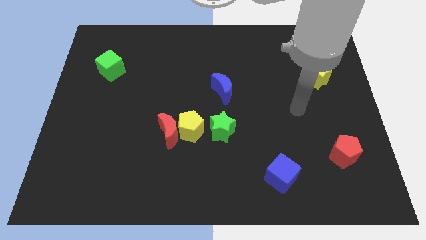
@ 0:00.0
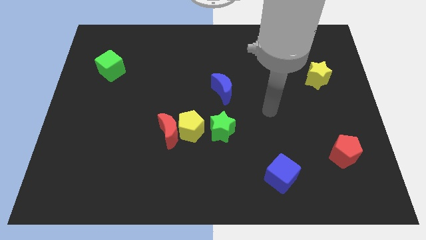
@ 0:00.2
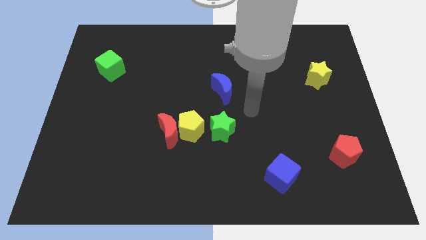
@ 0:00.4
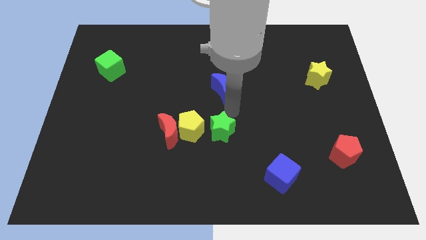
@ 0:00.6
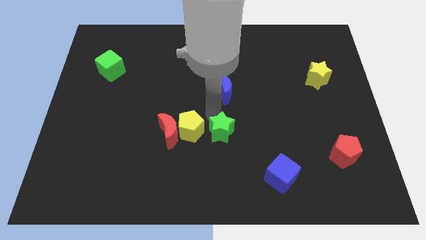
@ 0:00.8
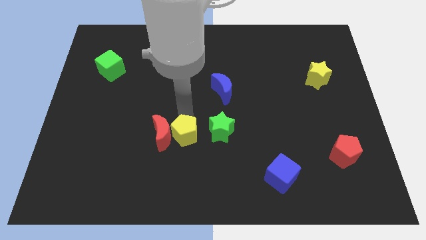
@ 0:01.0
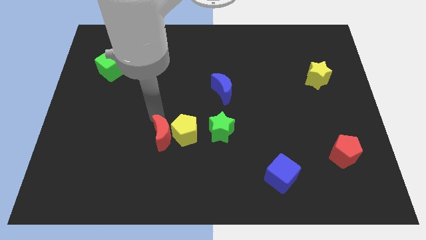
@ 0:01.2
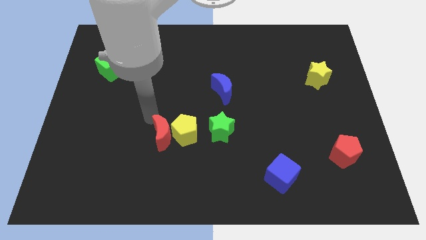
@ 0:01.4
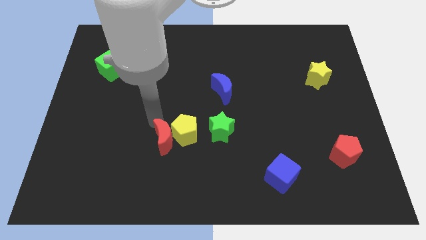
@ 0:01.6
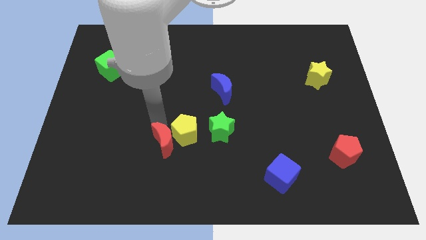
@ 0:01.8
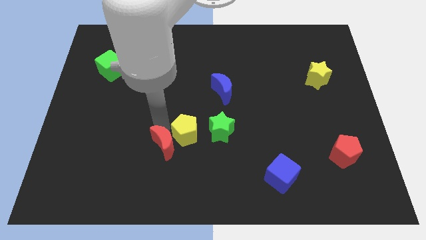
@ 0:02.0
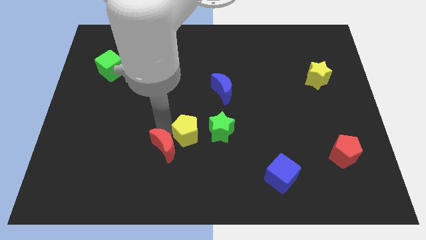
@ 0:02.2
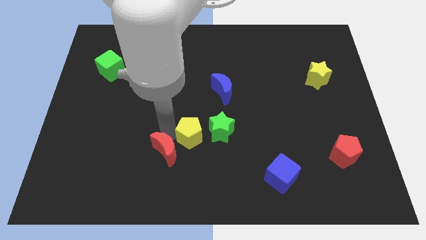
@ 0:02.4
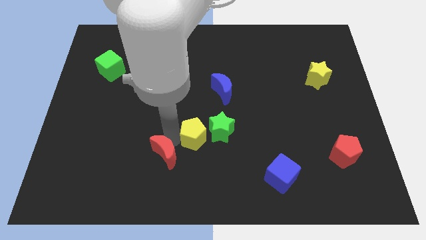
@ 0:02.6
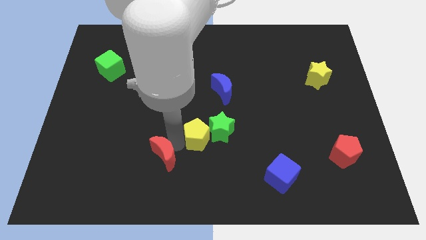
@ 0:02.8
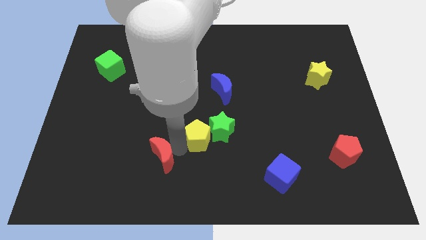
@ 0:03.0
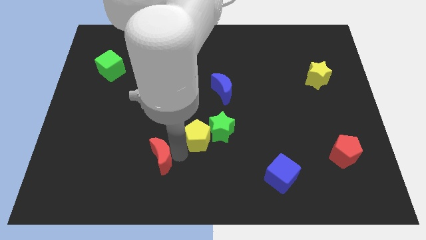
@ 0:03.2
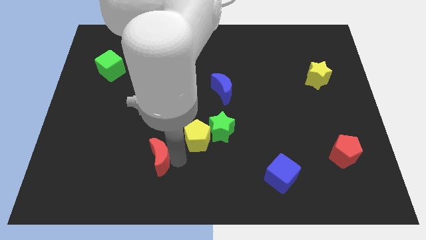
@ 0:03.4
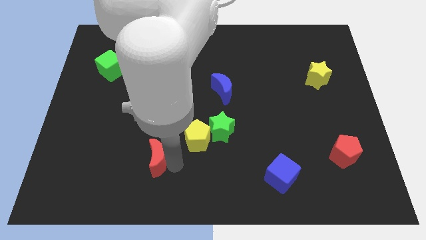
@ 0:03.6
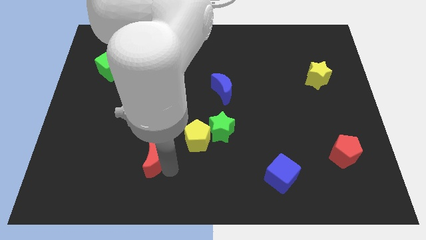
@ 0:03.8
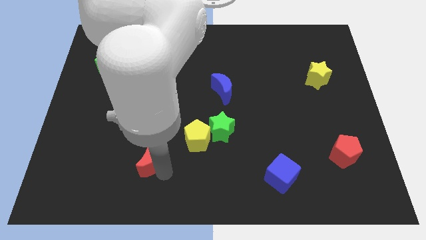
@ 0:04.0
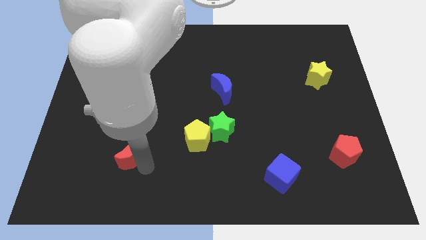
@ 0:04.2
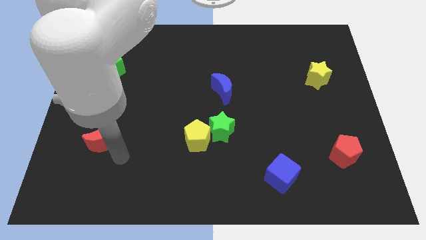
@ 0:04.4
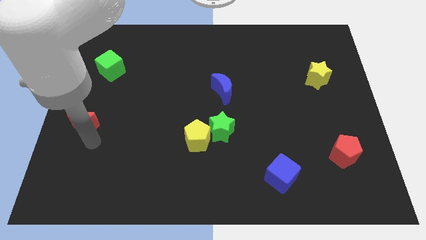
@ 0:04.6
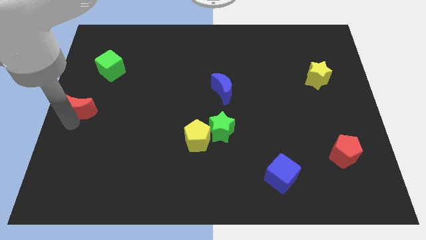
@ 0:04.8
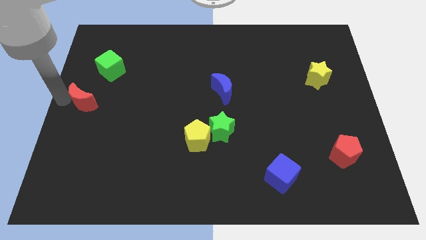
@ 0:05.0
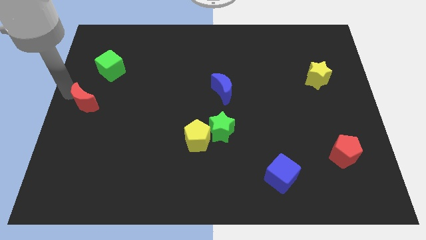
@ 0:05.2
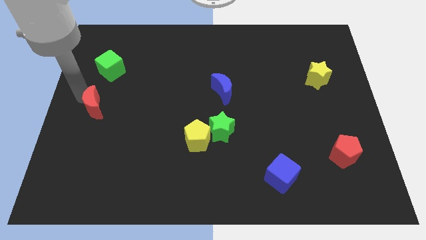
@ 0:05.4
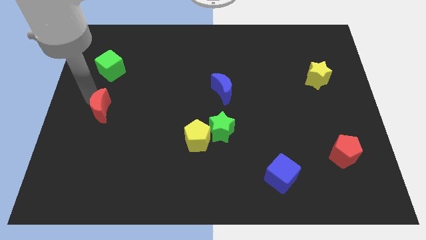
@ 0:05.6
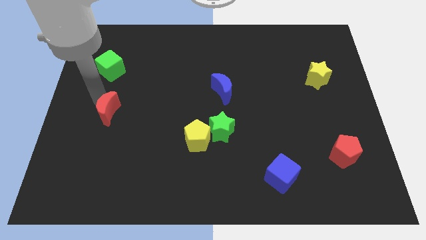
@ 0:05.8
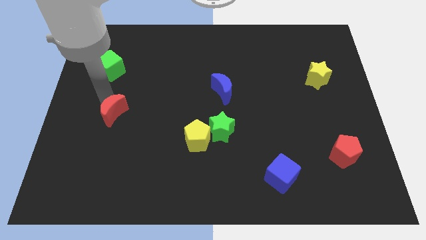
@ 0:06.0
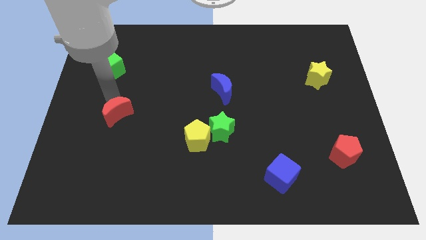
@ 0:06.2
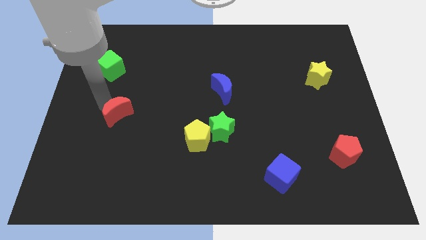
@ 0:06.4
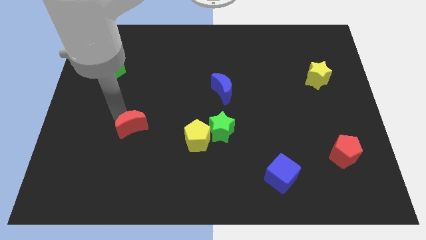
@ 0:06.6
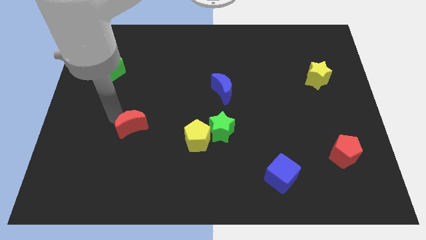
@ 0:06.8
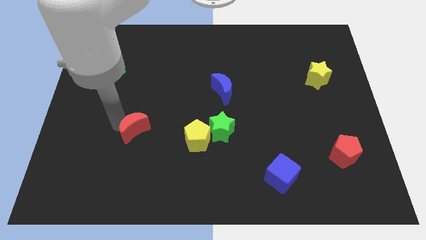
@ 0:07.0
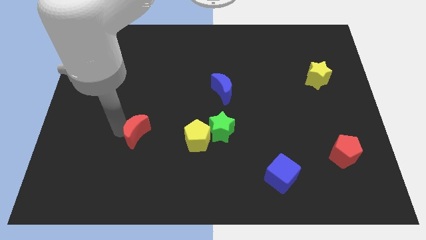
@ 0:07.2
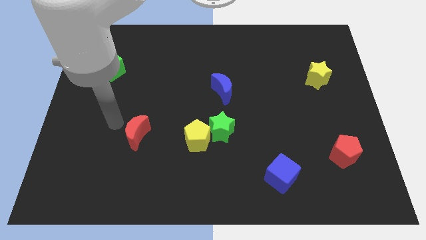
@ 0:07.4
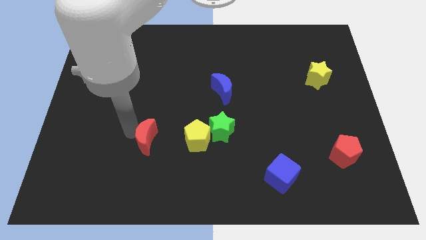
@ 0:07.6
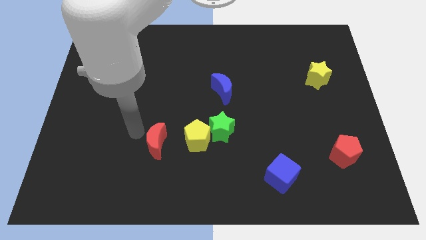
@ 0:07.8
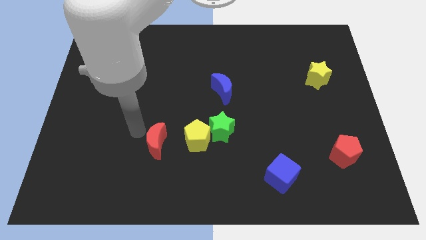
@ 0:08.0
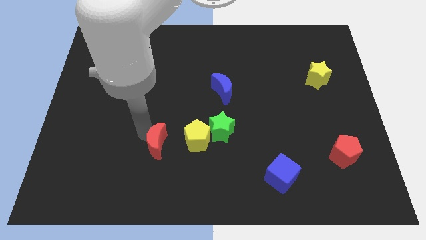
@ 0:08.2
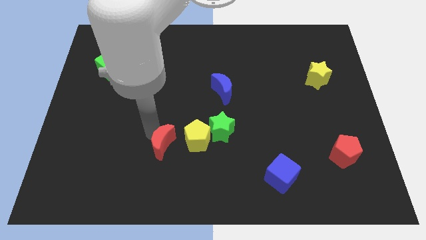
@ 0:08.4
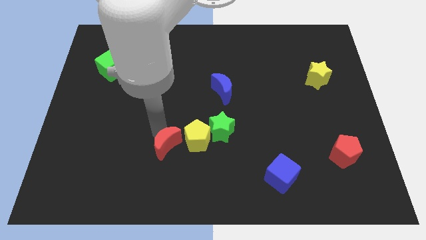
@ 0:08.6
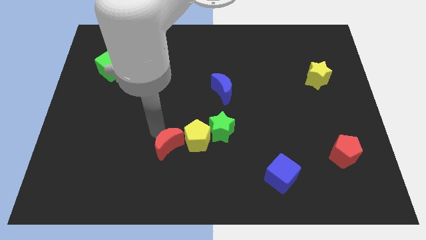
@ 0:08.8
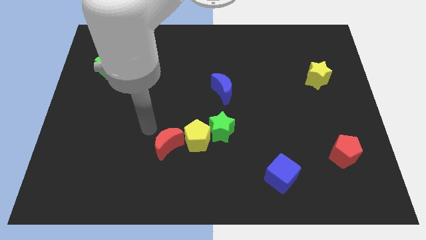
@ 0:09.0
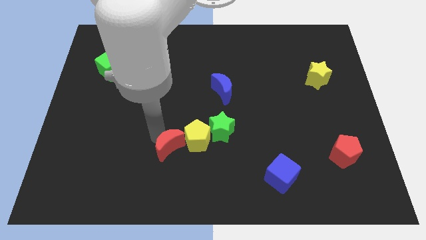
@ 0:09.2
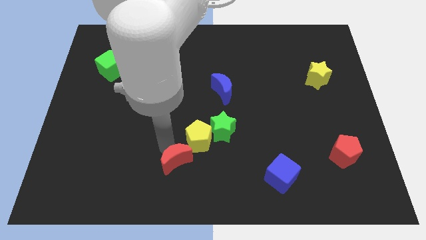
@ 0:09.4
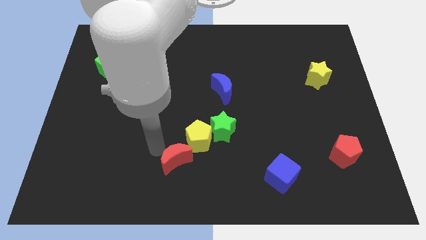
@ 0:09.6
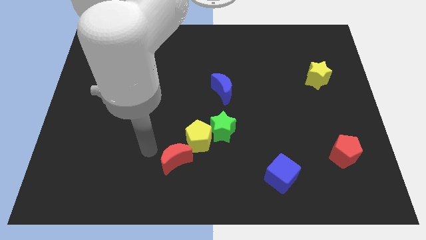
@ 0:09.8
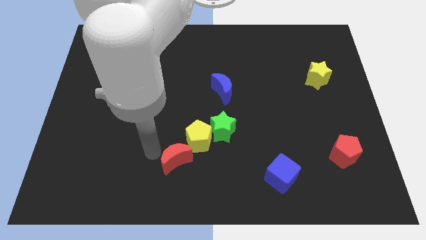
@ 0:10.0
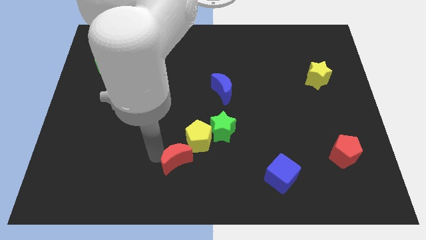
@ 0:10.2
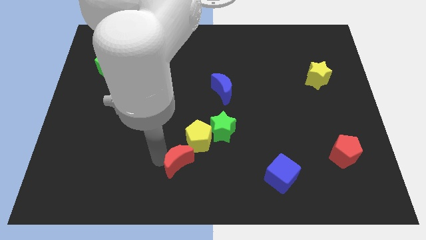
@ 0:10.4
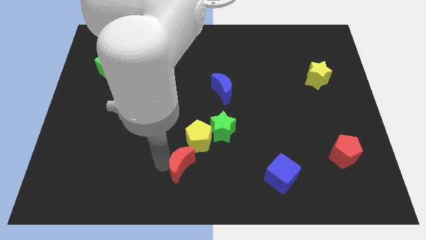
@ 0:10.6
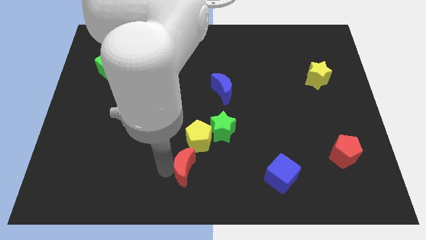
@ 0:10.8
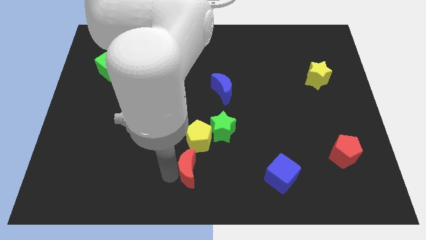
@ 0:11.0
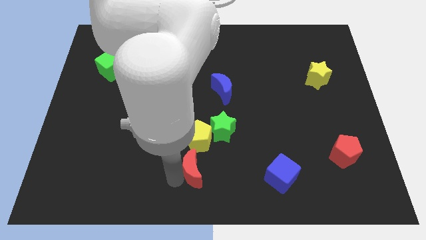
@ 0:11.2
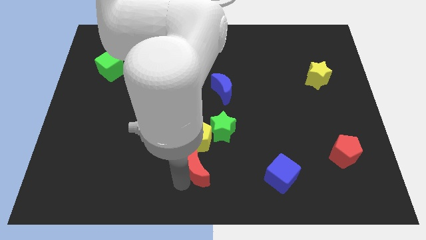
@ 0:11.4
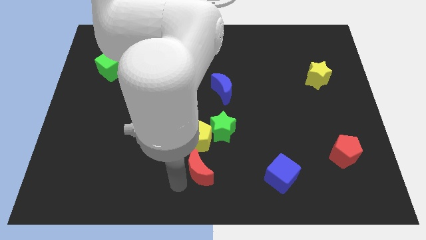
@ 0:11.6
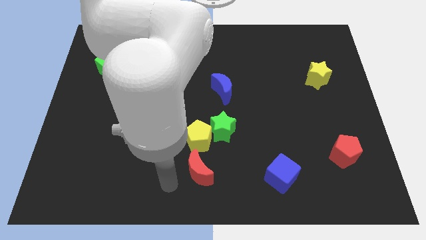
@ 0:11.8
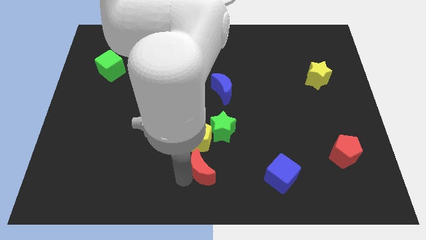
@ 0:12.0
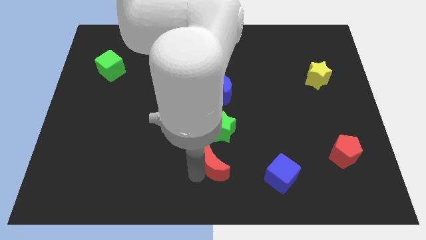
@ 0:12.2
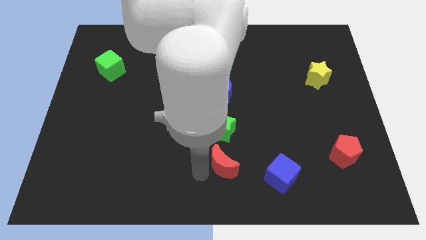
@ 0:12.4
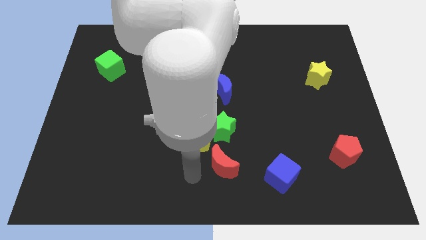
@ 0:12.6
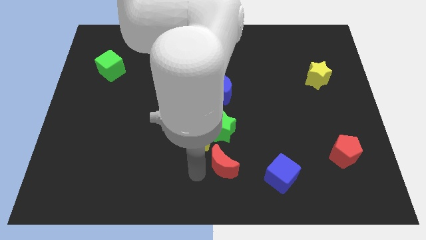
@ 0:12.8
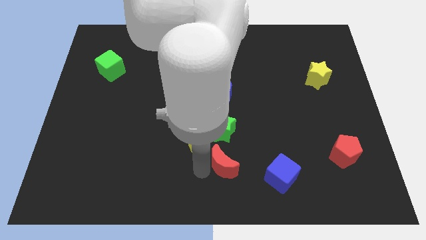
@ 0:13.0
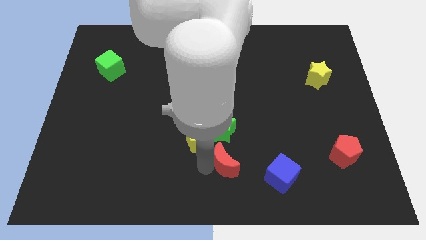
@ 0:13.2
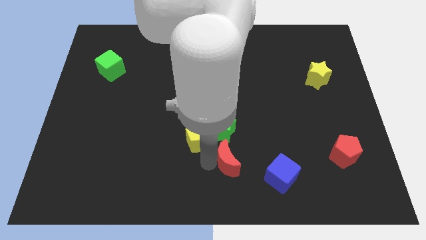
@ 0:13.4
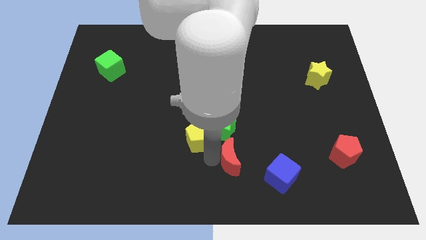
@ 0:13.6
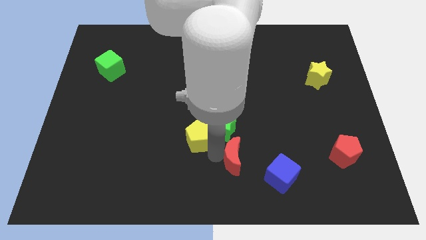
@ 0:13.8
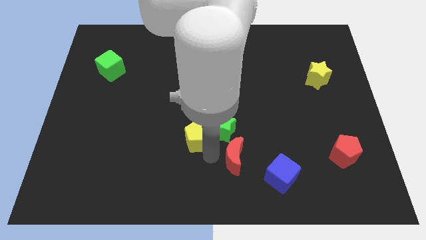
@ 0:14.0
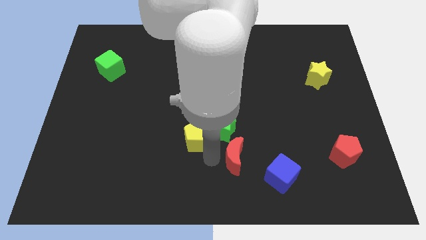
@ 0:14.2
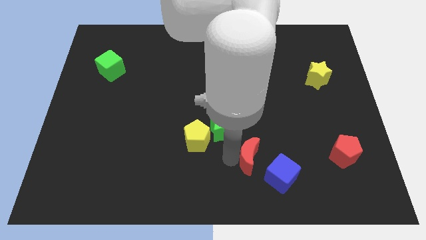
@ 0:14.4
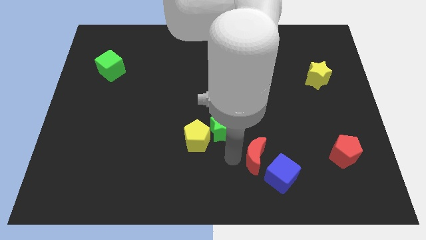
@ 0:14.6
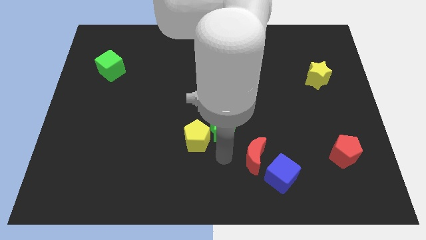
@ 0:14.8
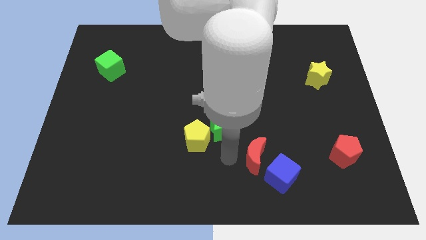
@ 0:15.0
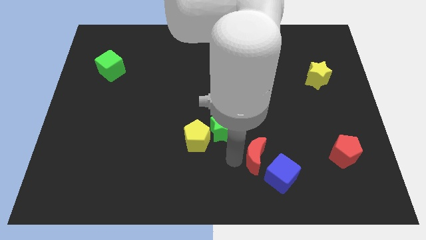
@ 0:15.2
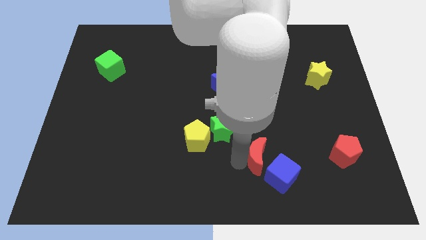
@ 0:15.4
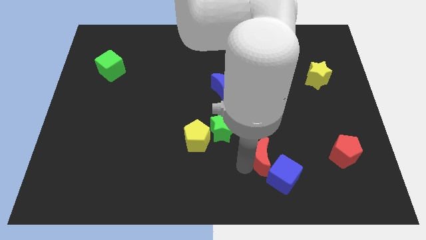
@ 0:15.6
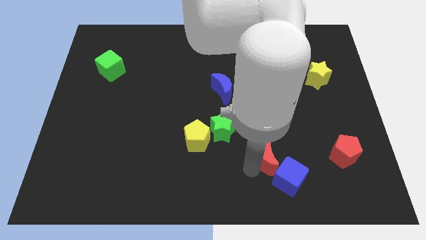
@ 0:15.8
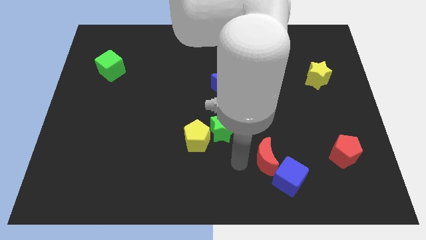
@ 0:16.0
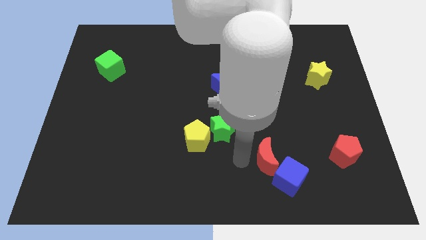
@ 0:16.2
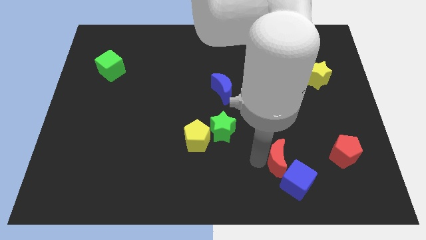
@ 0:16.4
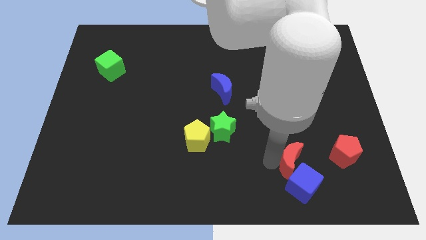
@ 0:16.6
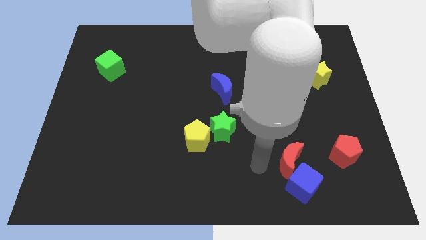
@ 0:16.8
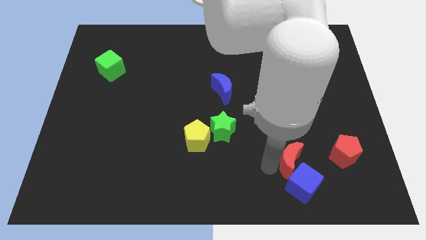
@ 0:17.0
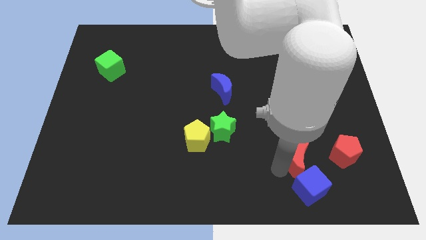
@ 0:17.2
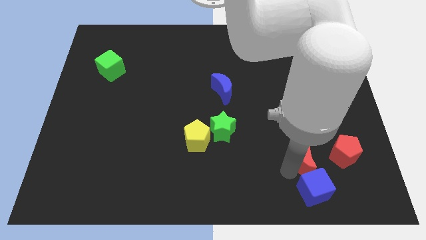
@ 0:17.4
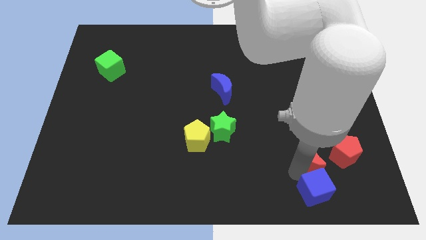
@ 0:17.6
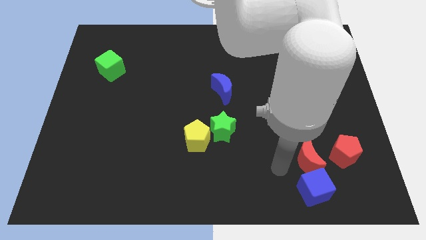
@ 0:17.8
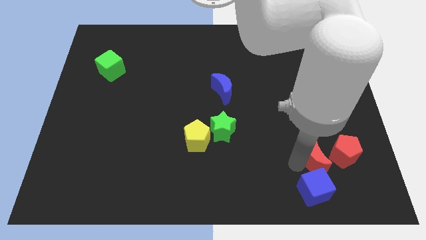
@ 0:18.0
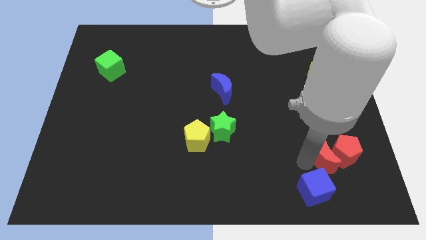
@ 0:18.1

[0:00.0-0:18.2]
push the red moon next to the red pentagon
